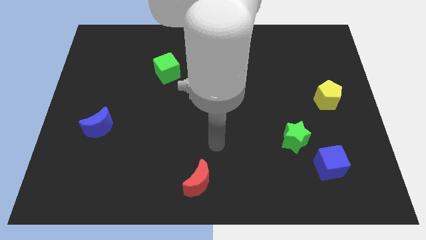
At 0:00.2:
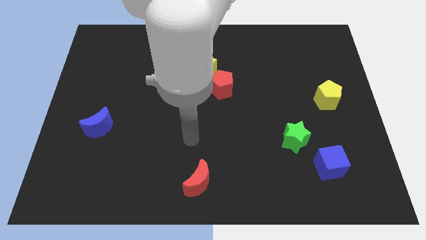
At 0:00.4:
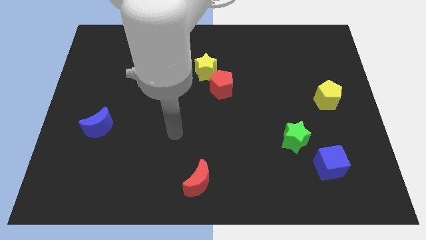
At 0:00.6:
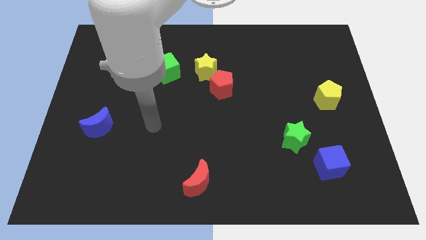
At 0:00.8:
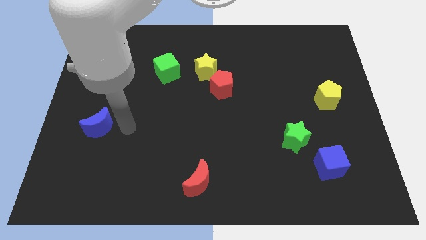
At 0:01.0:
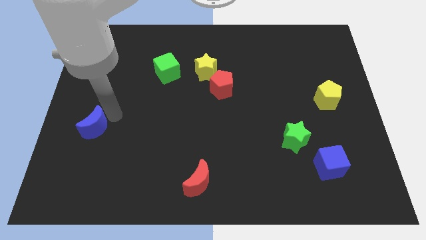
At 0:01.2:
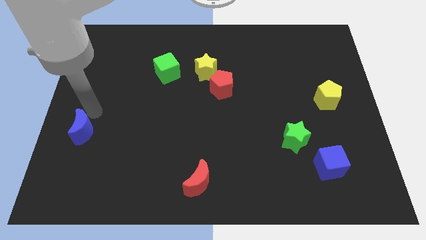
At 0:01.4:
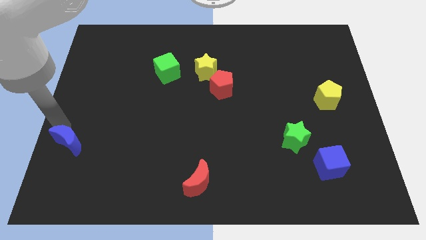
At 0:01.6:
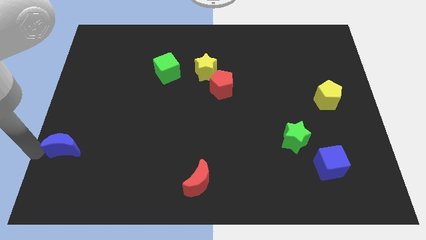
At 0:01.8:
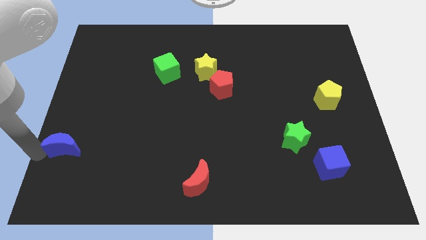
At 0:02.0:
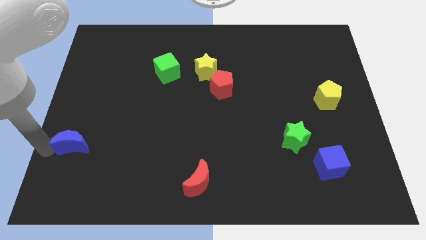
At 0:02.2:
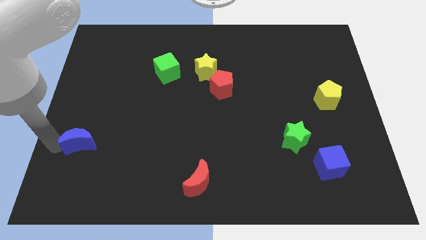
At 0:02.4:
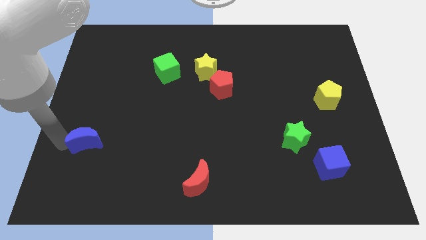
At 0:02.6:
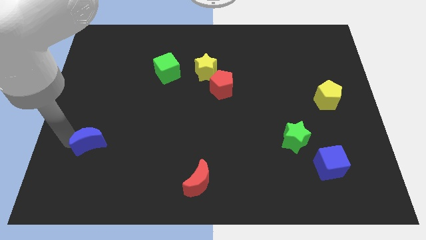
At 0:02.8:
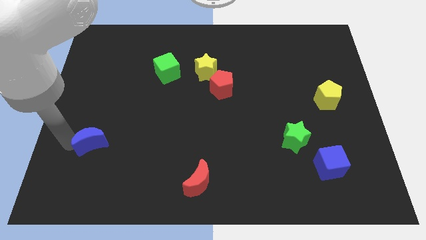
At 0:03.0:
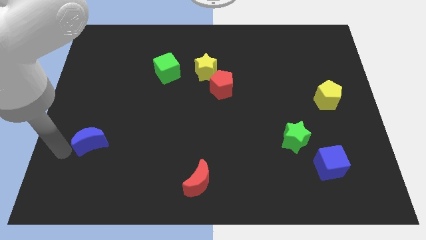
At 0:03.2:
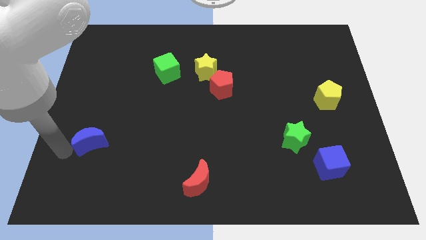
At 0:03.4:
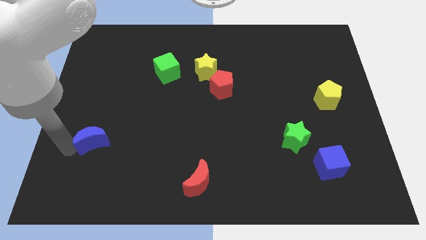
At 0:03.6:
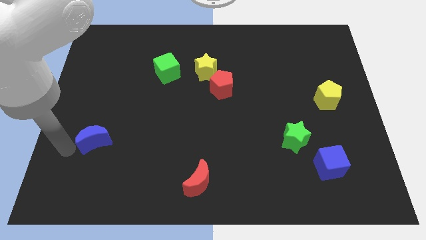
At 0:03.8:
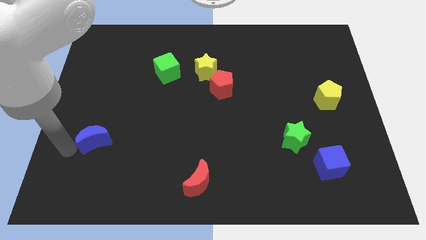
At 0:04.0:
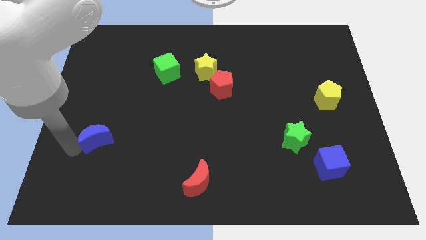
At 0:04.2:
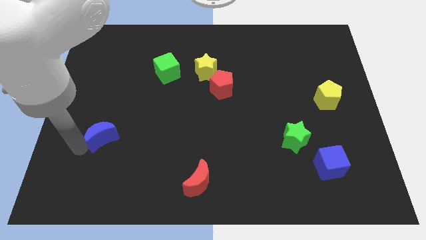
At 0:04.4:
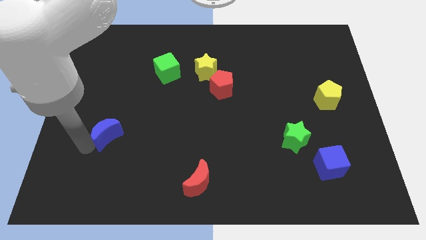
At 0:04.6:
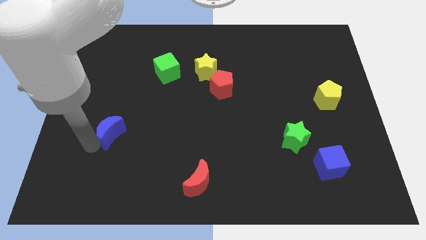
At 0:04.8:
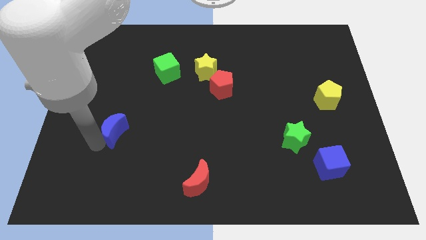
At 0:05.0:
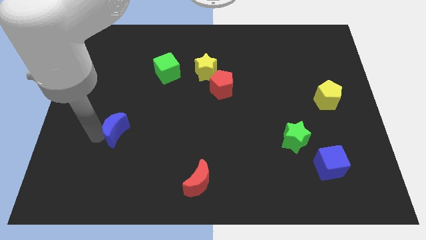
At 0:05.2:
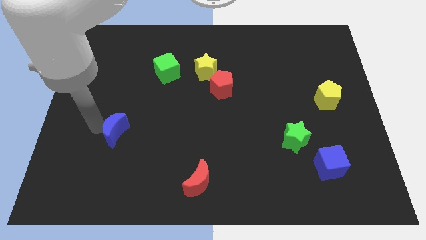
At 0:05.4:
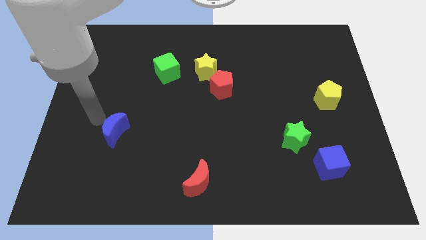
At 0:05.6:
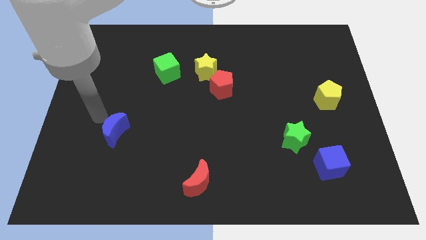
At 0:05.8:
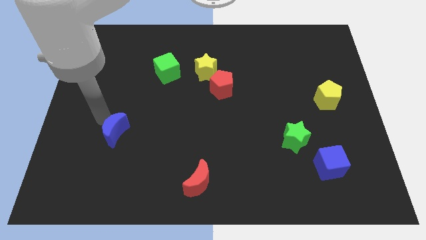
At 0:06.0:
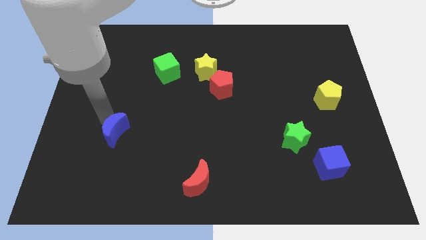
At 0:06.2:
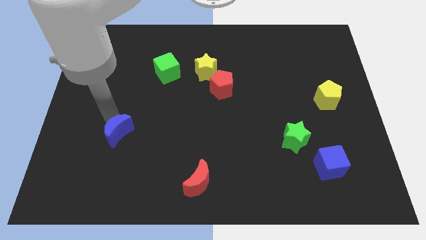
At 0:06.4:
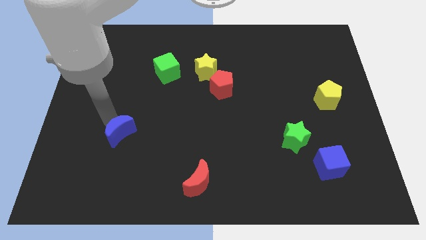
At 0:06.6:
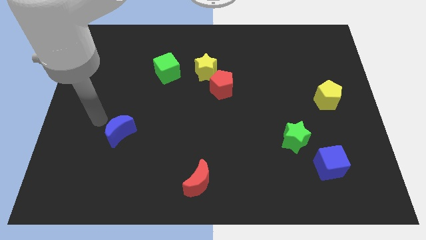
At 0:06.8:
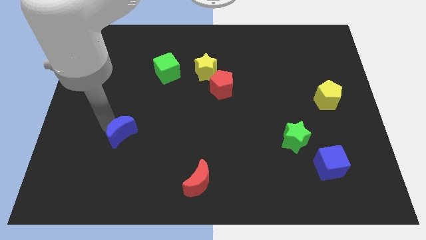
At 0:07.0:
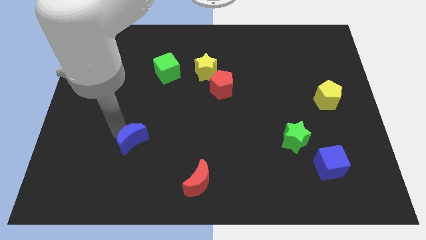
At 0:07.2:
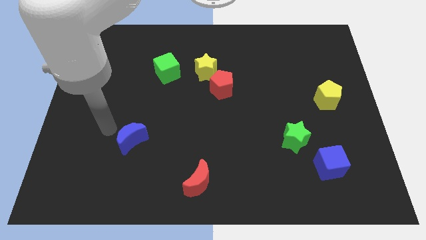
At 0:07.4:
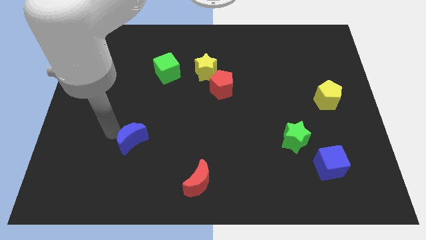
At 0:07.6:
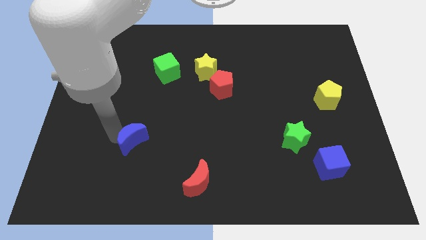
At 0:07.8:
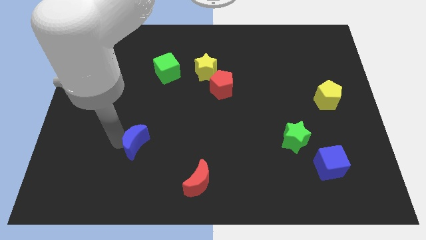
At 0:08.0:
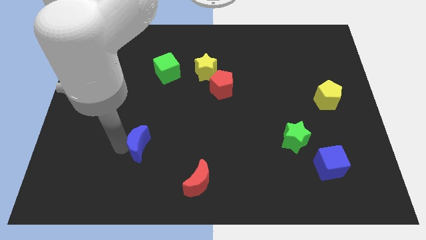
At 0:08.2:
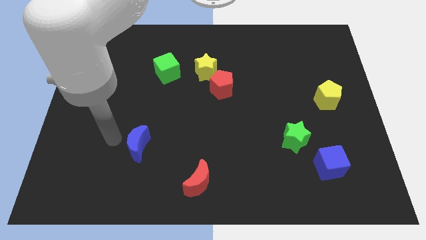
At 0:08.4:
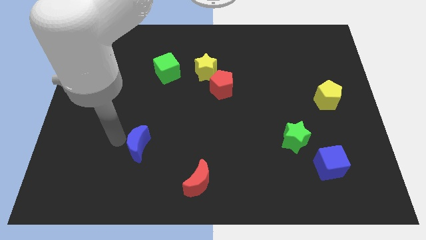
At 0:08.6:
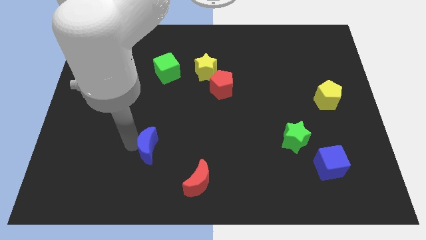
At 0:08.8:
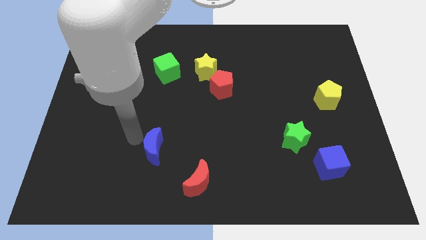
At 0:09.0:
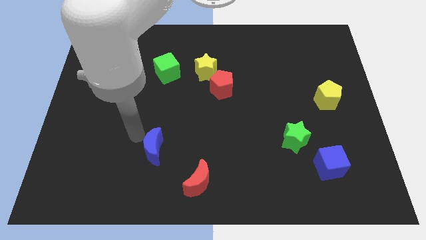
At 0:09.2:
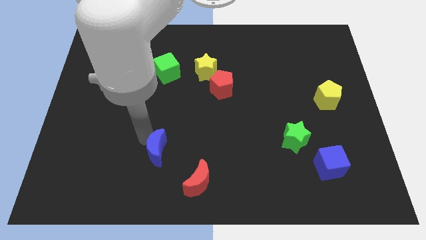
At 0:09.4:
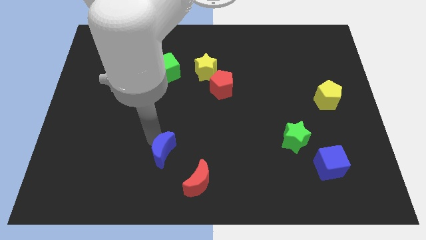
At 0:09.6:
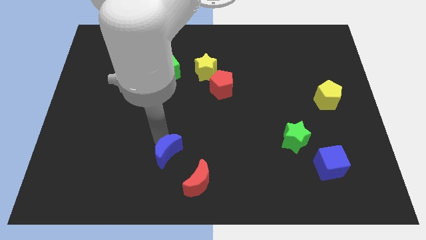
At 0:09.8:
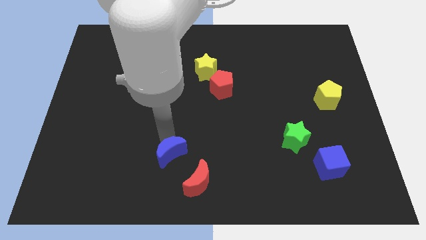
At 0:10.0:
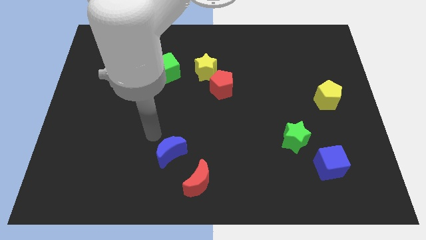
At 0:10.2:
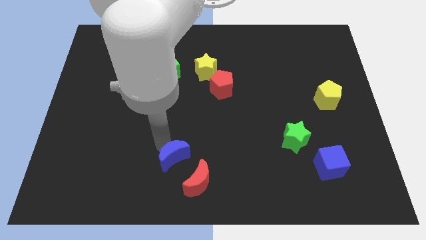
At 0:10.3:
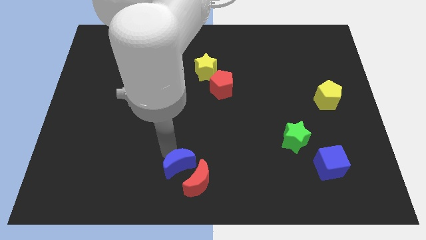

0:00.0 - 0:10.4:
slide the blue moon next to the red moon

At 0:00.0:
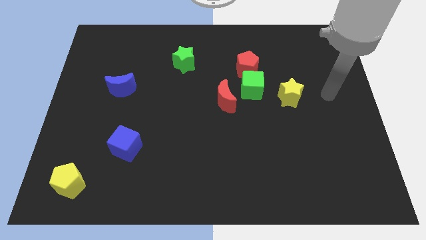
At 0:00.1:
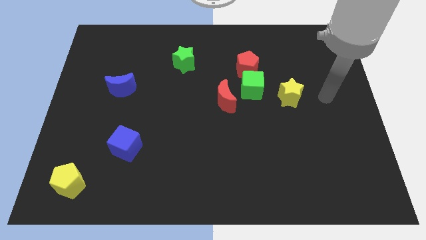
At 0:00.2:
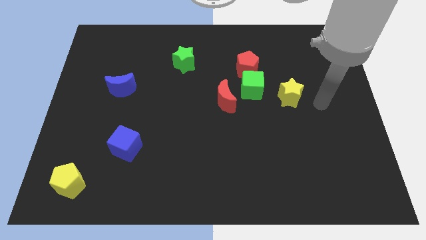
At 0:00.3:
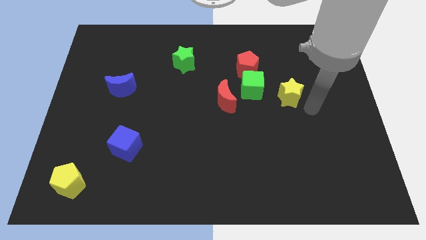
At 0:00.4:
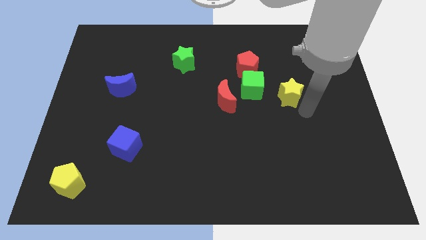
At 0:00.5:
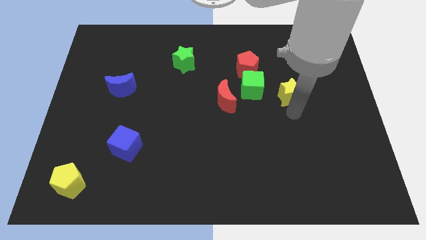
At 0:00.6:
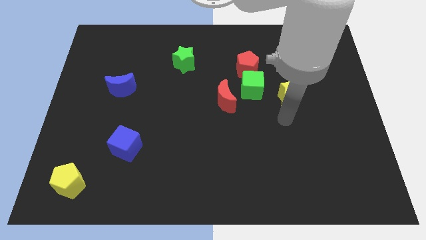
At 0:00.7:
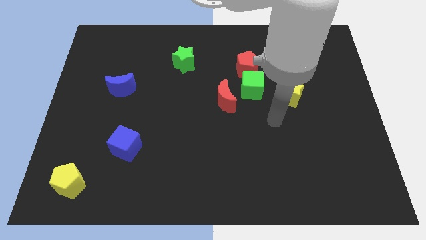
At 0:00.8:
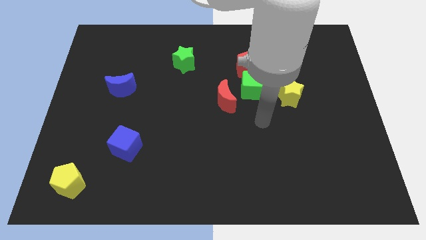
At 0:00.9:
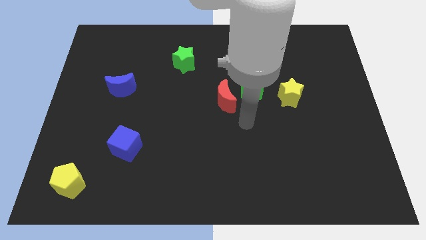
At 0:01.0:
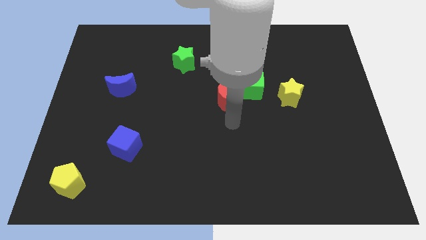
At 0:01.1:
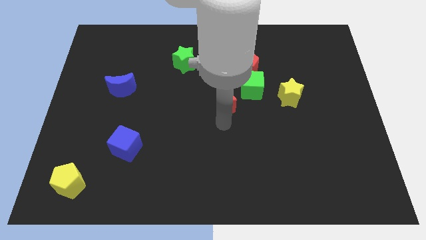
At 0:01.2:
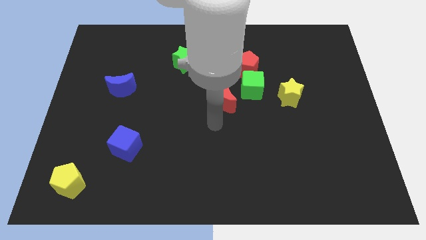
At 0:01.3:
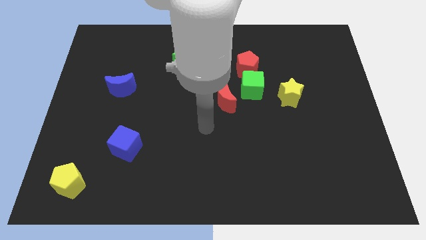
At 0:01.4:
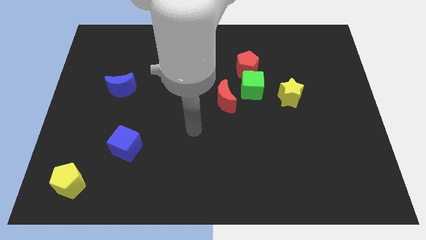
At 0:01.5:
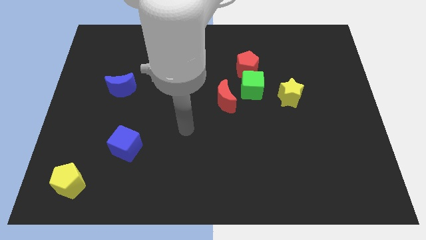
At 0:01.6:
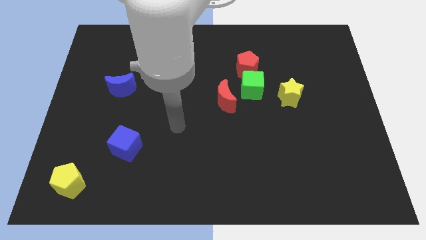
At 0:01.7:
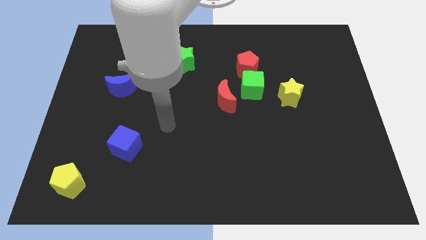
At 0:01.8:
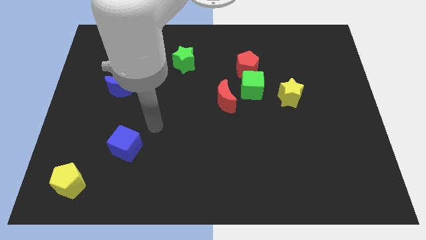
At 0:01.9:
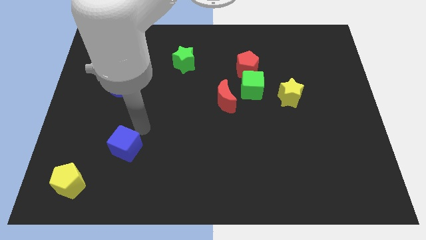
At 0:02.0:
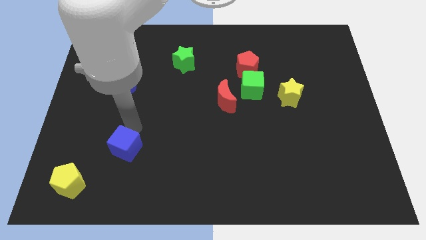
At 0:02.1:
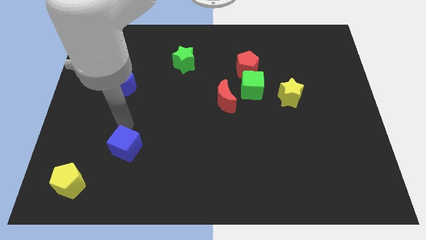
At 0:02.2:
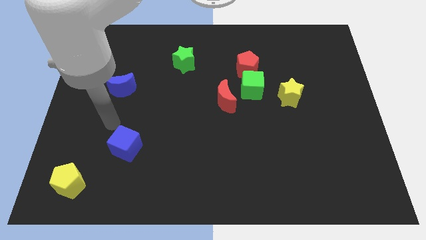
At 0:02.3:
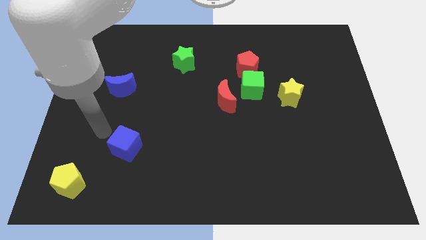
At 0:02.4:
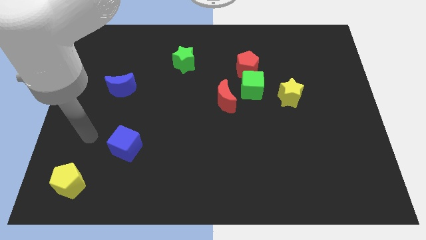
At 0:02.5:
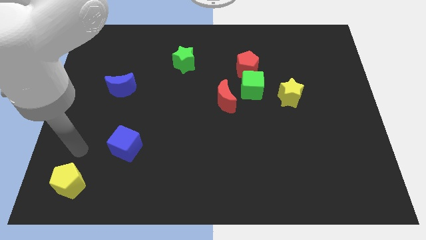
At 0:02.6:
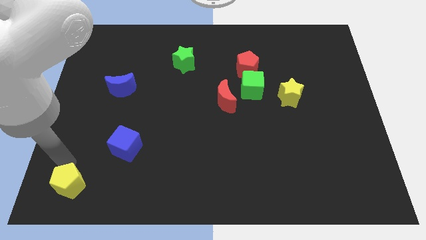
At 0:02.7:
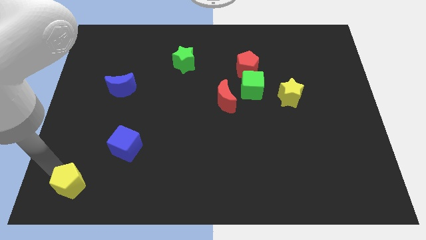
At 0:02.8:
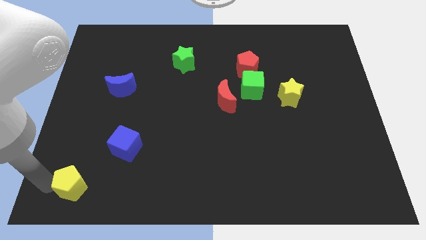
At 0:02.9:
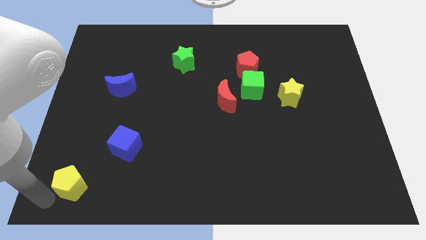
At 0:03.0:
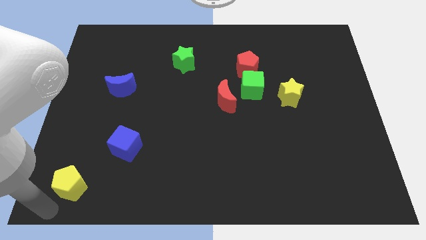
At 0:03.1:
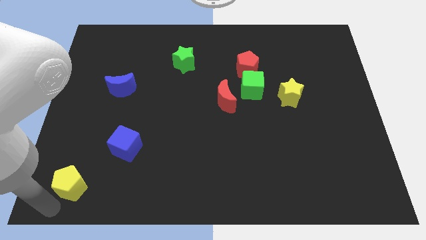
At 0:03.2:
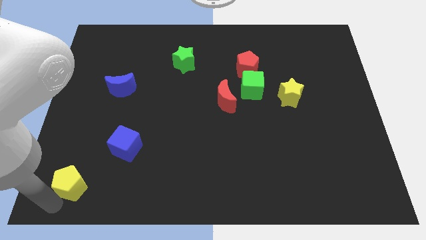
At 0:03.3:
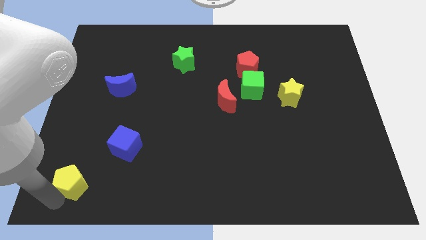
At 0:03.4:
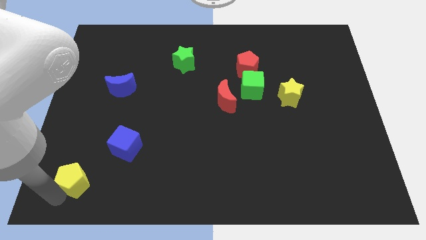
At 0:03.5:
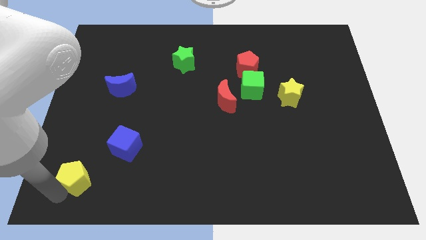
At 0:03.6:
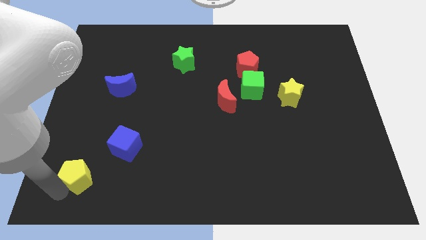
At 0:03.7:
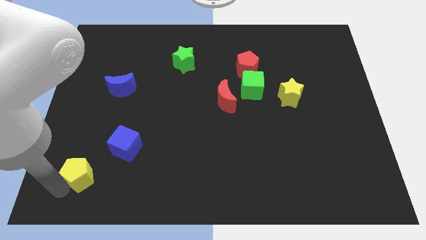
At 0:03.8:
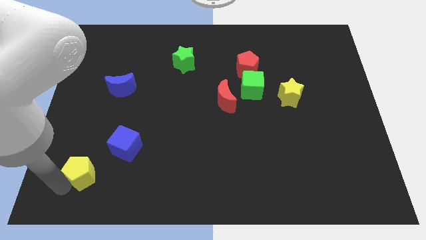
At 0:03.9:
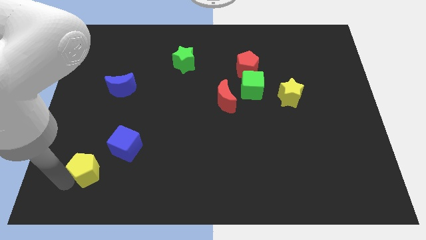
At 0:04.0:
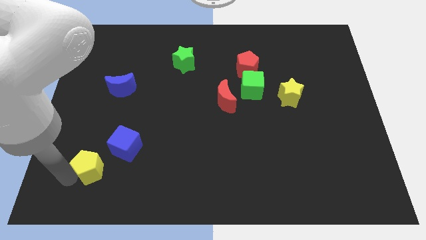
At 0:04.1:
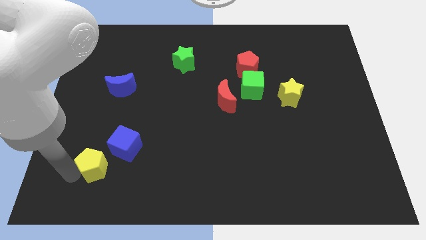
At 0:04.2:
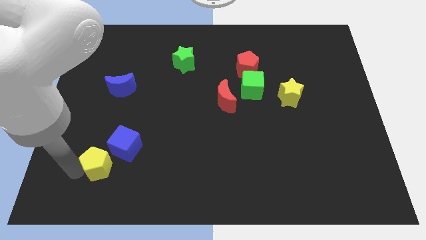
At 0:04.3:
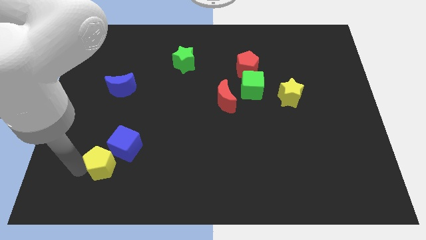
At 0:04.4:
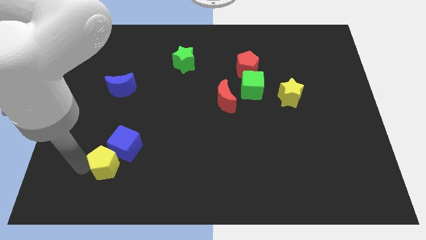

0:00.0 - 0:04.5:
slide the yellow pentagon next to the blue cube
